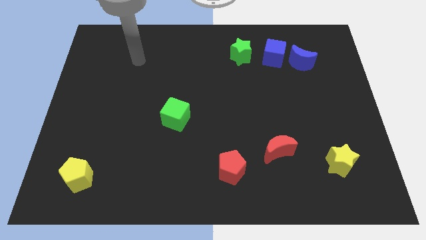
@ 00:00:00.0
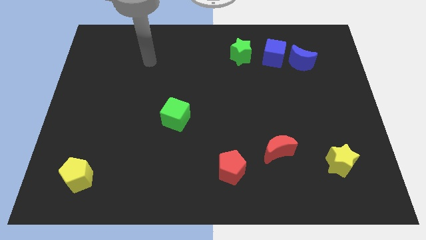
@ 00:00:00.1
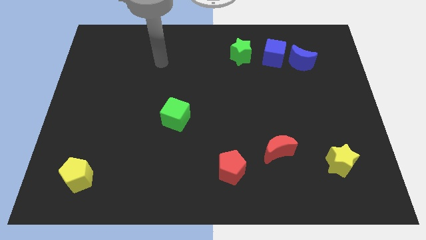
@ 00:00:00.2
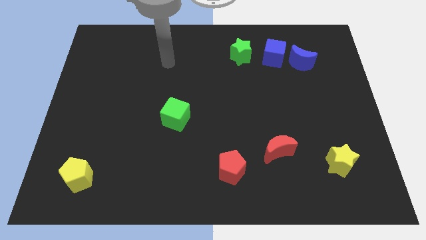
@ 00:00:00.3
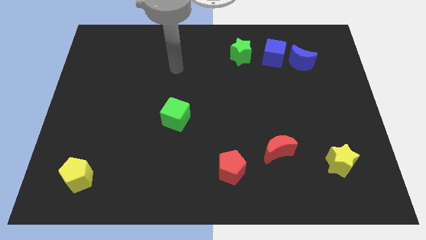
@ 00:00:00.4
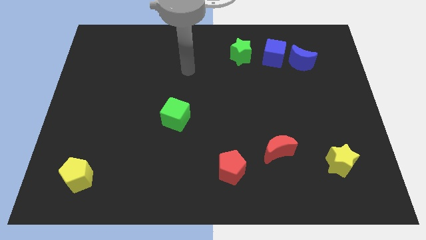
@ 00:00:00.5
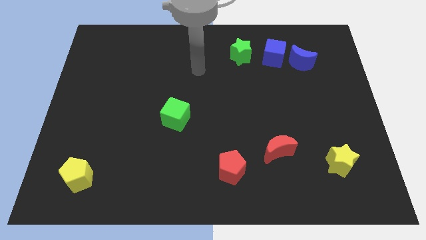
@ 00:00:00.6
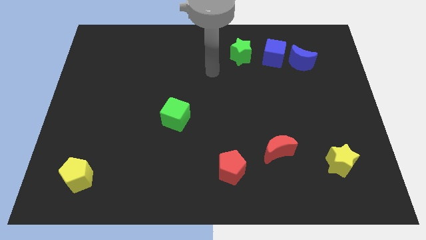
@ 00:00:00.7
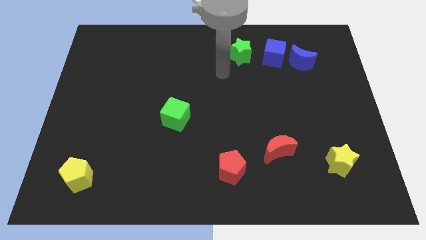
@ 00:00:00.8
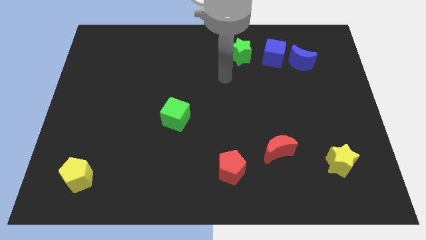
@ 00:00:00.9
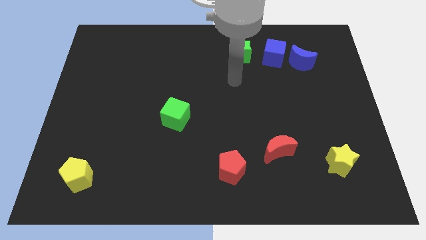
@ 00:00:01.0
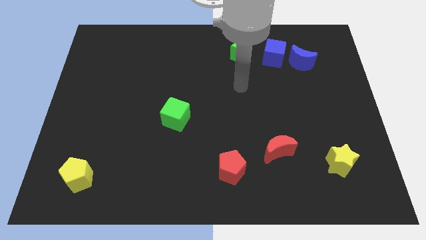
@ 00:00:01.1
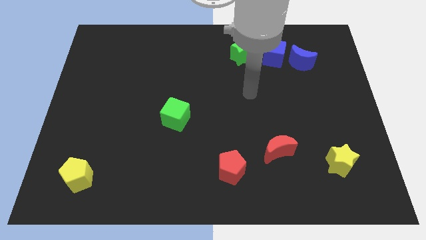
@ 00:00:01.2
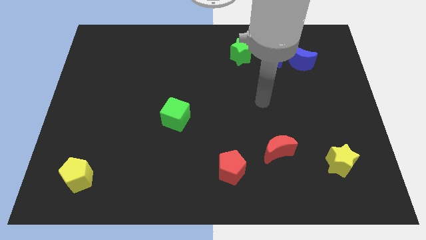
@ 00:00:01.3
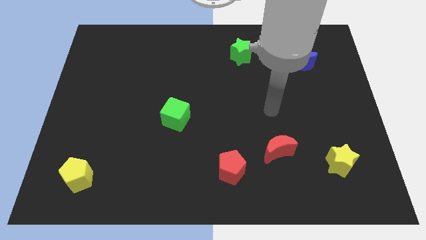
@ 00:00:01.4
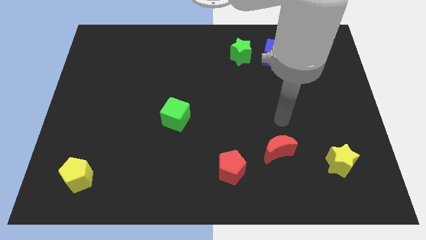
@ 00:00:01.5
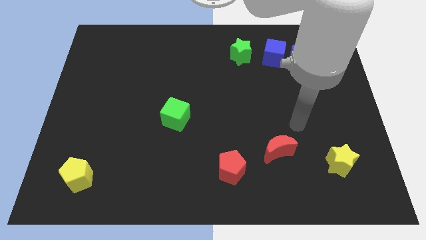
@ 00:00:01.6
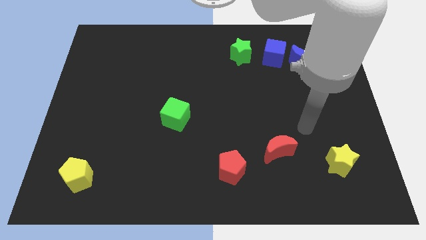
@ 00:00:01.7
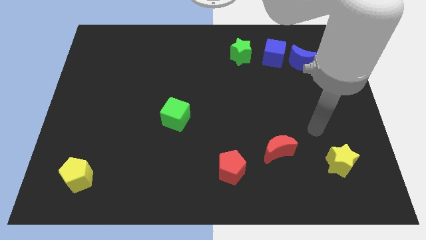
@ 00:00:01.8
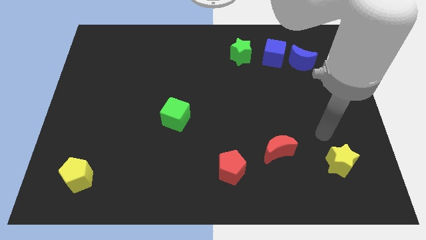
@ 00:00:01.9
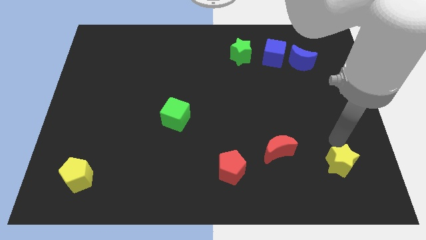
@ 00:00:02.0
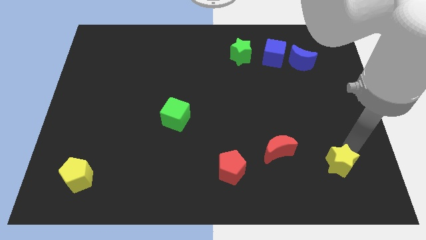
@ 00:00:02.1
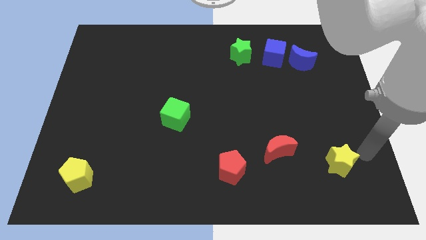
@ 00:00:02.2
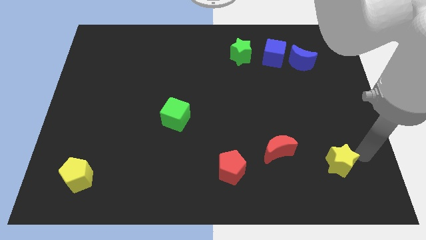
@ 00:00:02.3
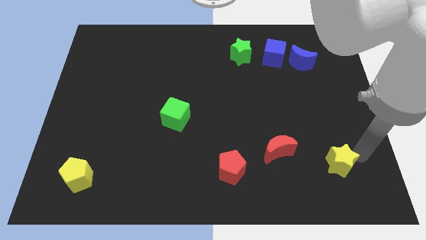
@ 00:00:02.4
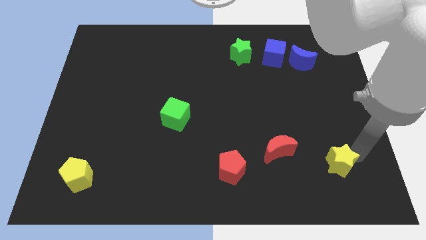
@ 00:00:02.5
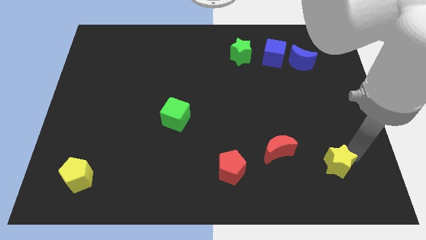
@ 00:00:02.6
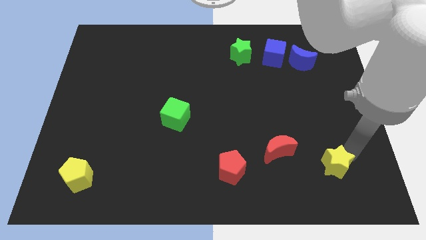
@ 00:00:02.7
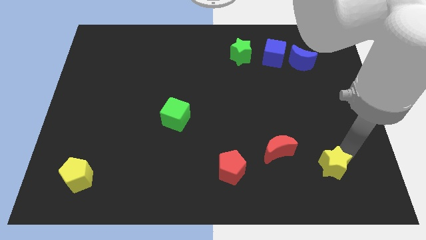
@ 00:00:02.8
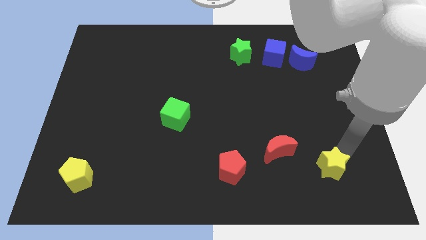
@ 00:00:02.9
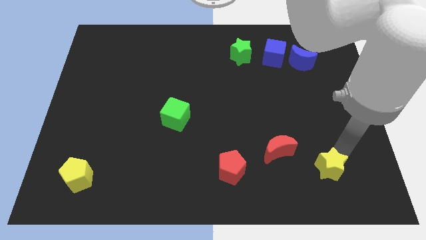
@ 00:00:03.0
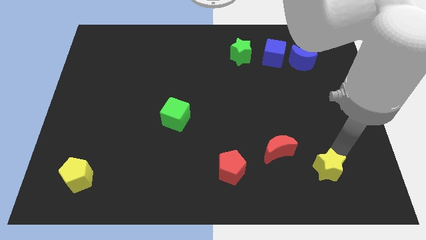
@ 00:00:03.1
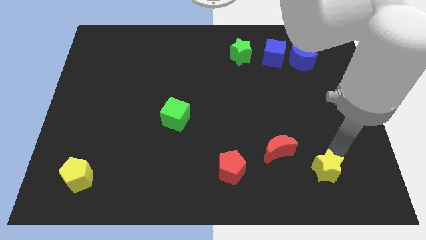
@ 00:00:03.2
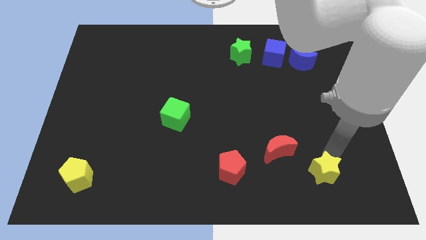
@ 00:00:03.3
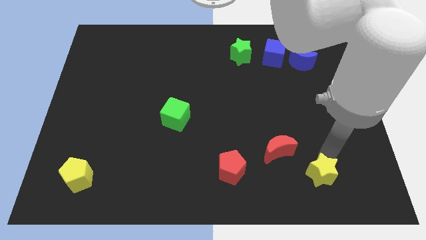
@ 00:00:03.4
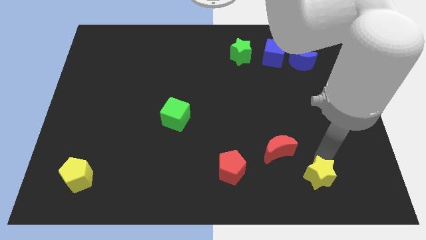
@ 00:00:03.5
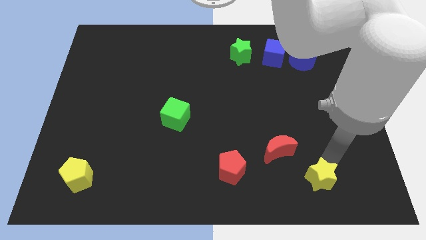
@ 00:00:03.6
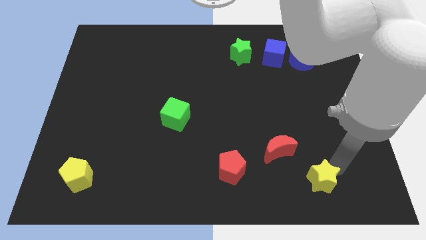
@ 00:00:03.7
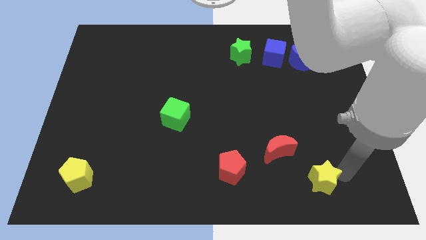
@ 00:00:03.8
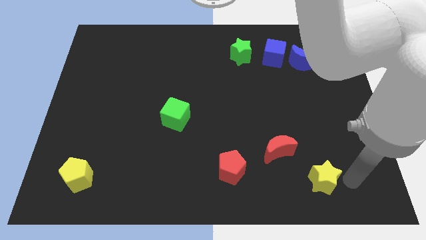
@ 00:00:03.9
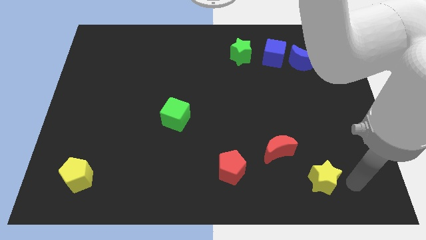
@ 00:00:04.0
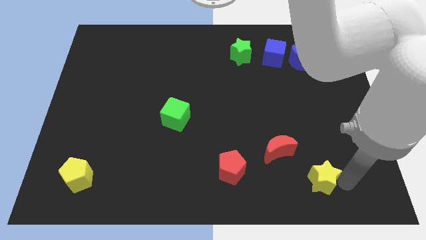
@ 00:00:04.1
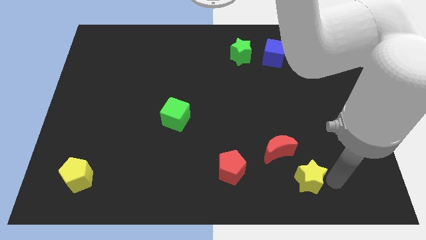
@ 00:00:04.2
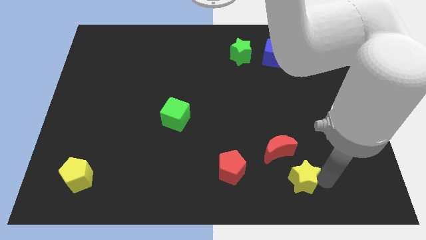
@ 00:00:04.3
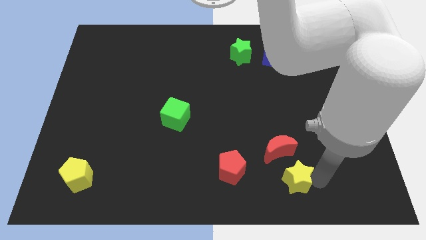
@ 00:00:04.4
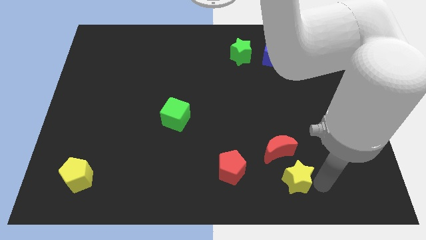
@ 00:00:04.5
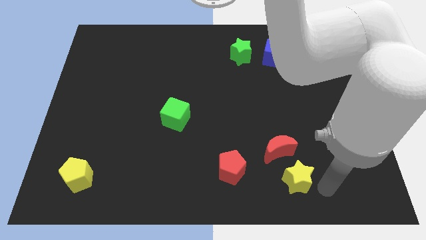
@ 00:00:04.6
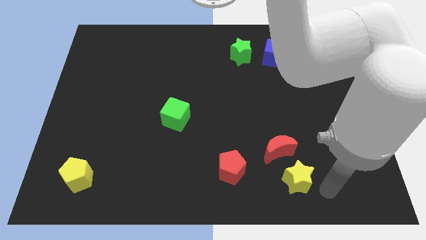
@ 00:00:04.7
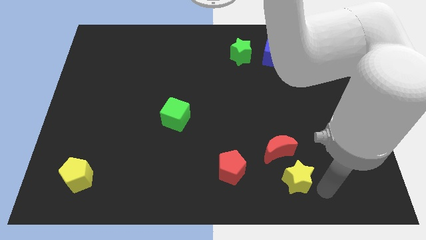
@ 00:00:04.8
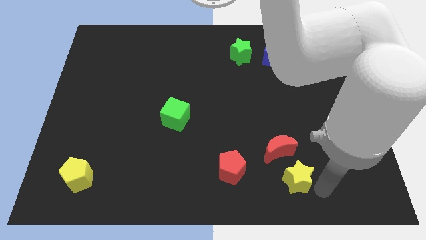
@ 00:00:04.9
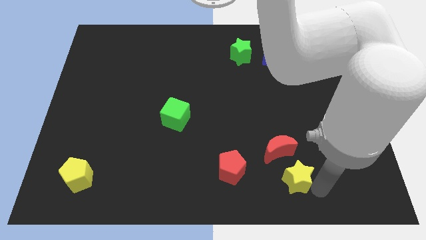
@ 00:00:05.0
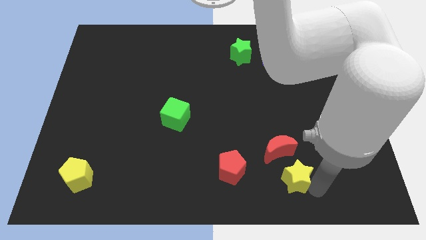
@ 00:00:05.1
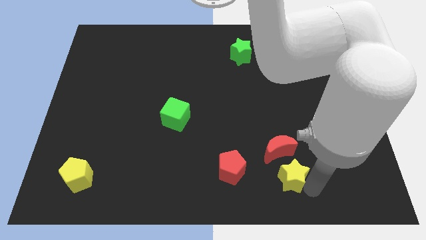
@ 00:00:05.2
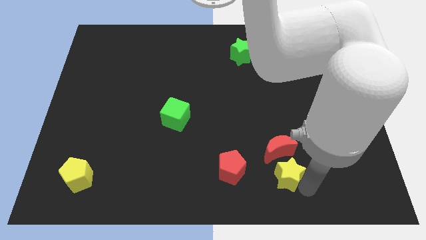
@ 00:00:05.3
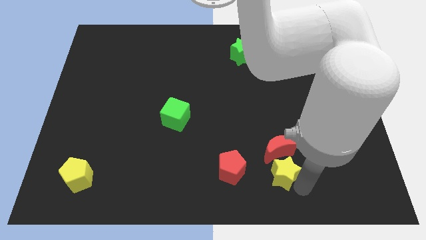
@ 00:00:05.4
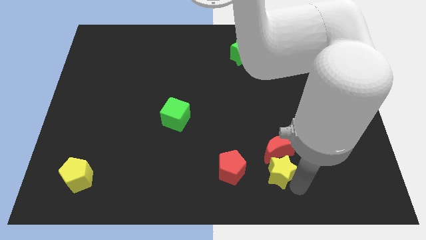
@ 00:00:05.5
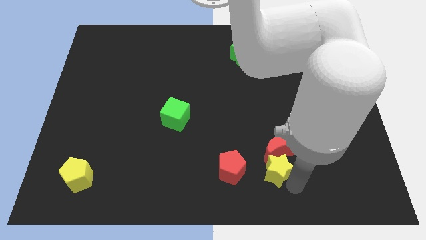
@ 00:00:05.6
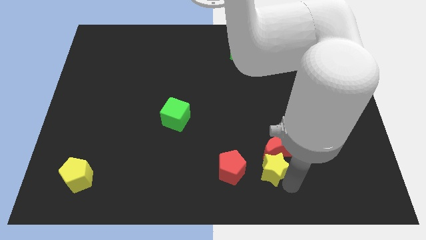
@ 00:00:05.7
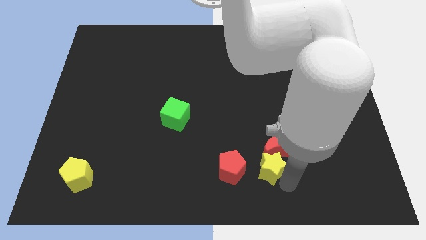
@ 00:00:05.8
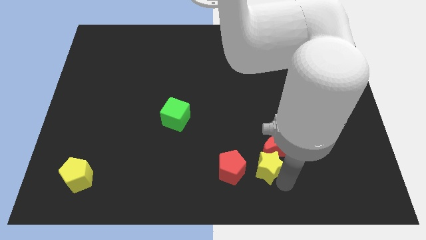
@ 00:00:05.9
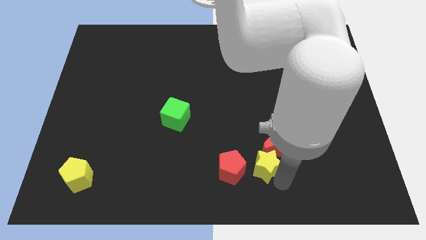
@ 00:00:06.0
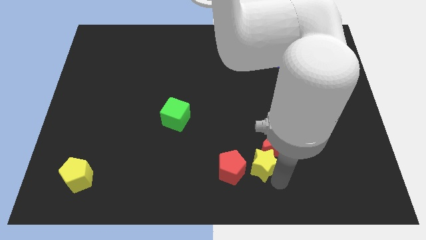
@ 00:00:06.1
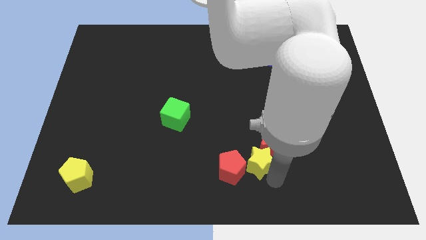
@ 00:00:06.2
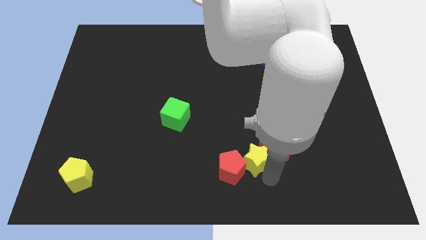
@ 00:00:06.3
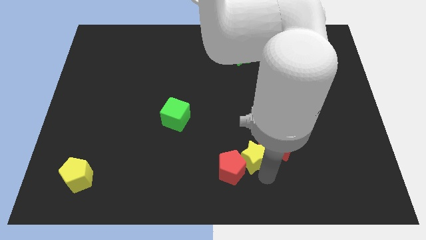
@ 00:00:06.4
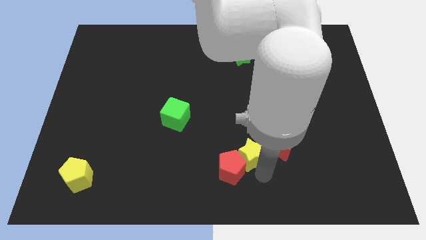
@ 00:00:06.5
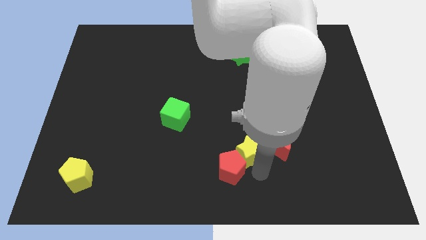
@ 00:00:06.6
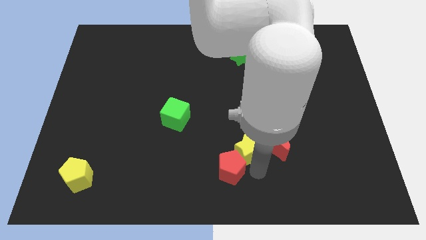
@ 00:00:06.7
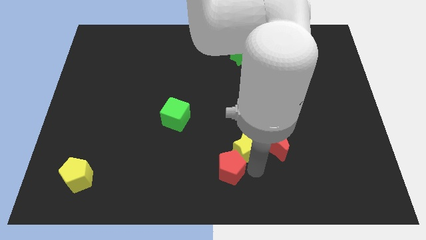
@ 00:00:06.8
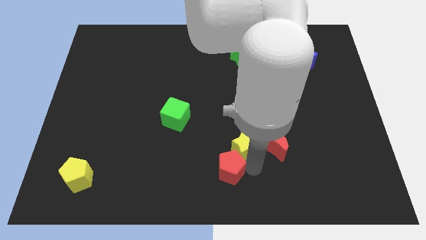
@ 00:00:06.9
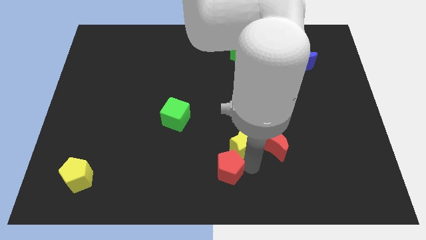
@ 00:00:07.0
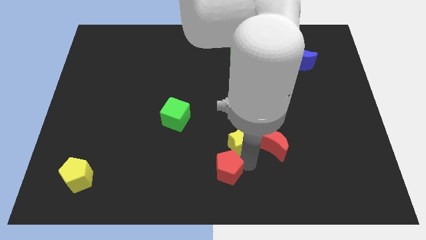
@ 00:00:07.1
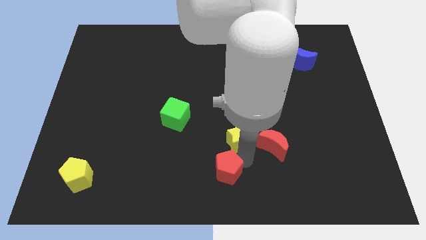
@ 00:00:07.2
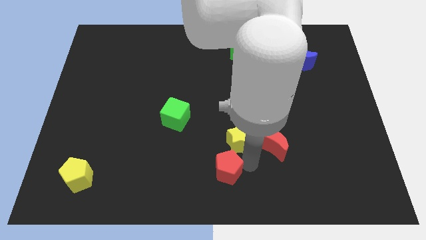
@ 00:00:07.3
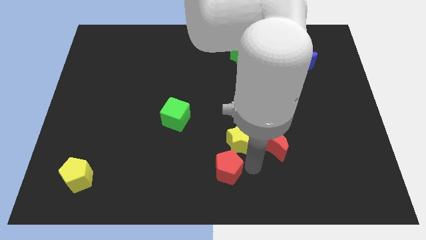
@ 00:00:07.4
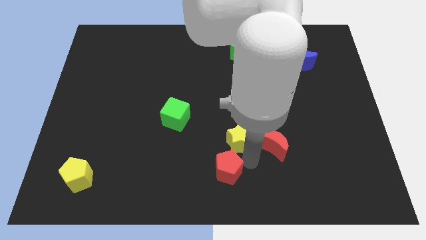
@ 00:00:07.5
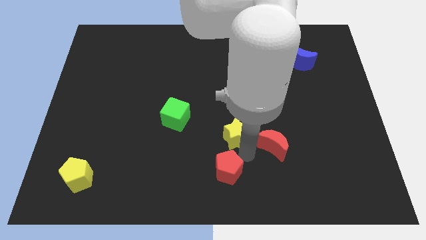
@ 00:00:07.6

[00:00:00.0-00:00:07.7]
slide the yellow star to the middle of the board
